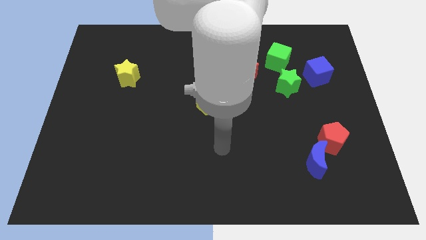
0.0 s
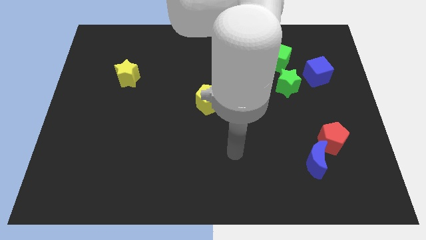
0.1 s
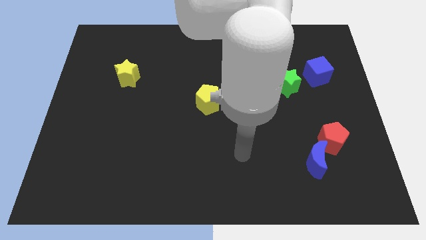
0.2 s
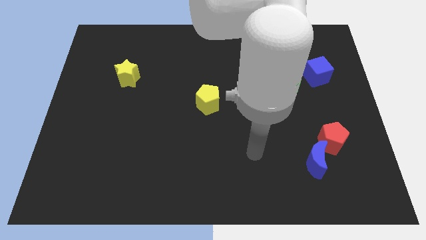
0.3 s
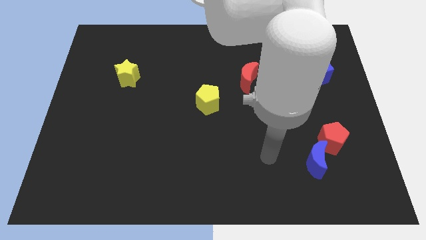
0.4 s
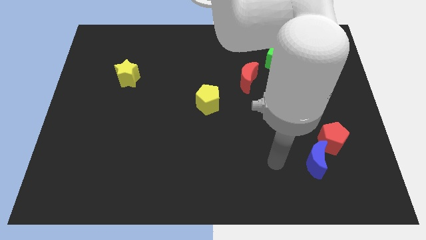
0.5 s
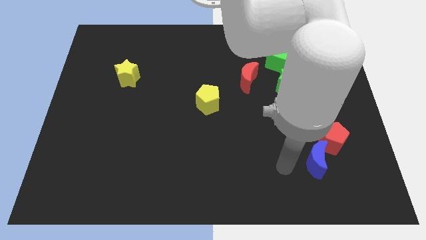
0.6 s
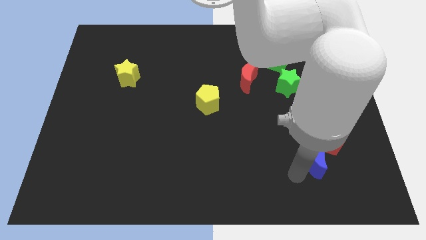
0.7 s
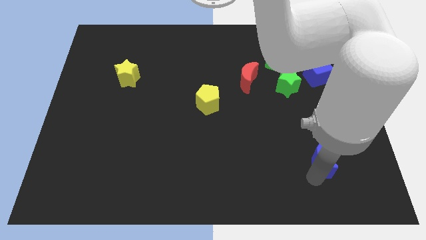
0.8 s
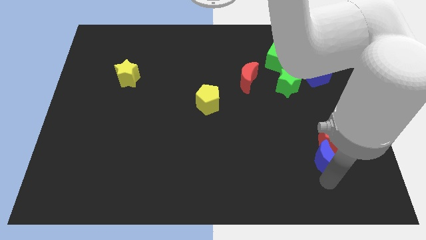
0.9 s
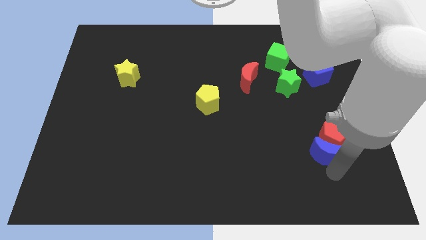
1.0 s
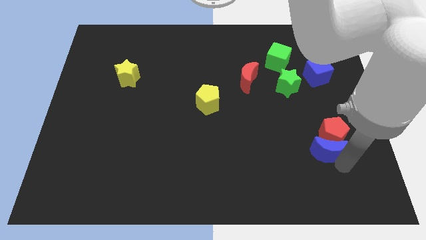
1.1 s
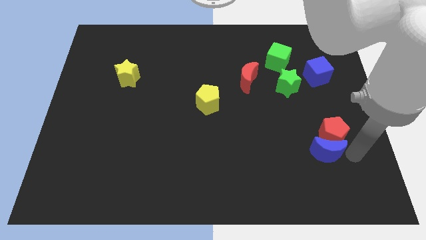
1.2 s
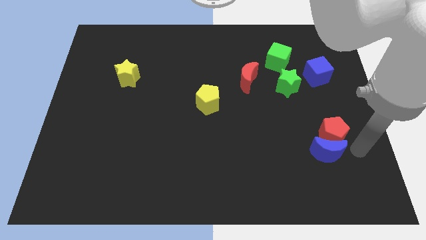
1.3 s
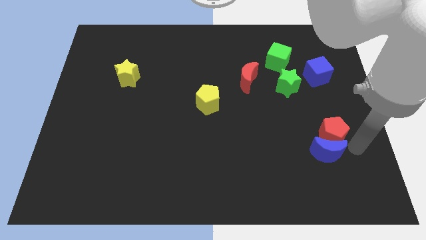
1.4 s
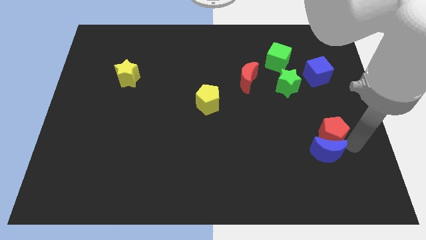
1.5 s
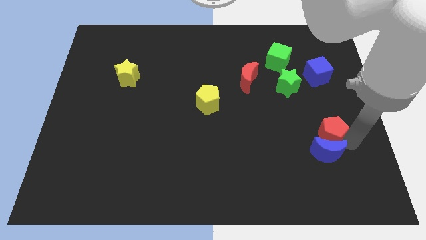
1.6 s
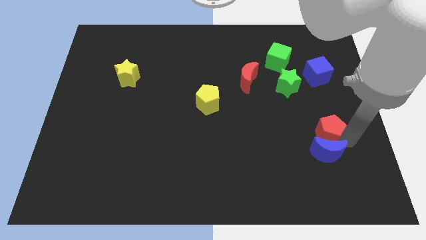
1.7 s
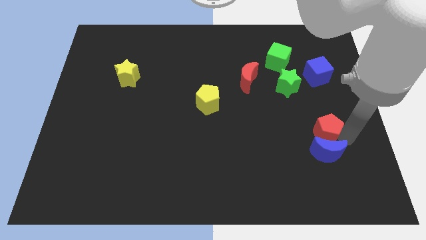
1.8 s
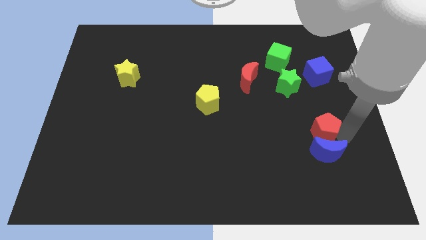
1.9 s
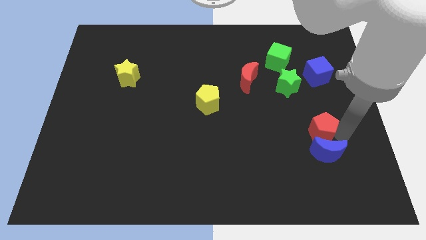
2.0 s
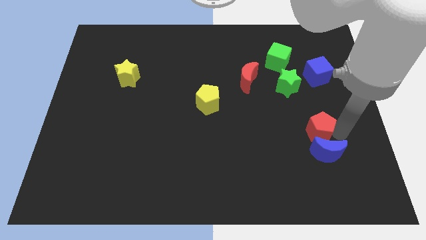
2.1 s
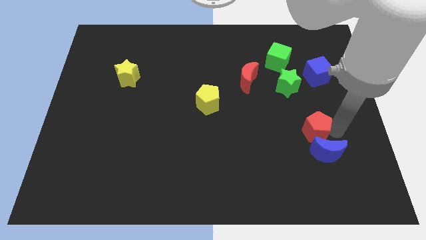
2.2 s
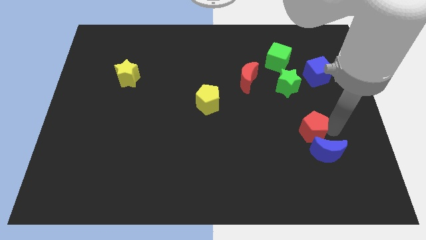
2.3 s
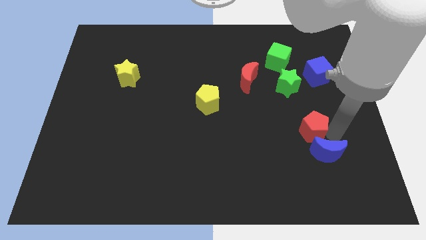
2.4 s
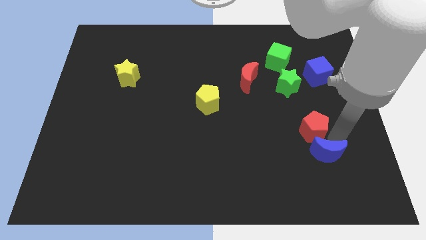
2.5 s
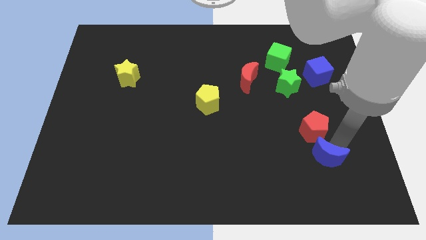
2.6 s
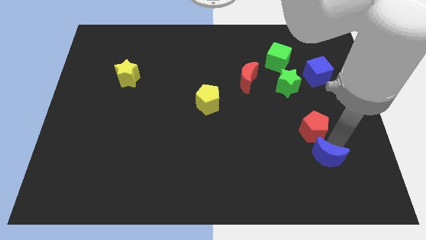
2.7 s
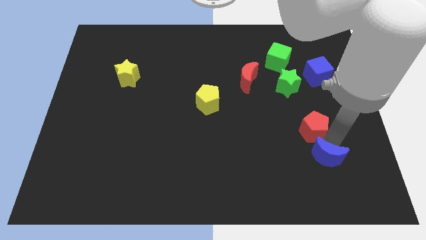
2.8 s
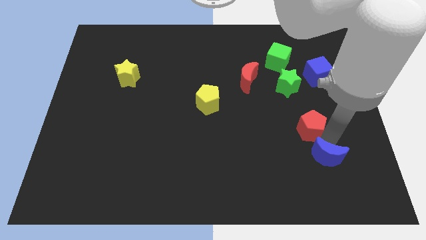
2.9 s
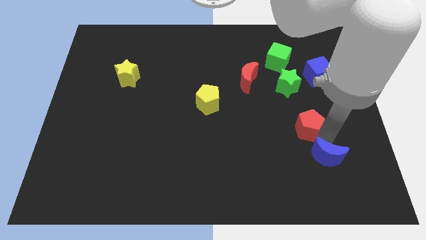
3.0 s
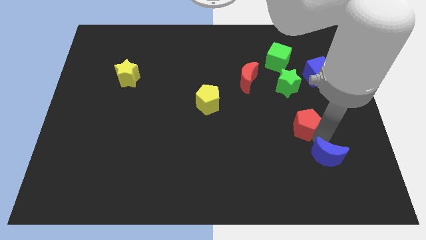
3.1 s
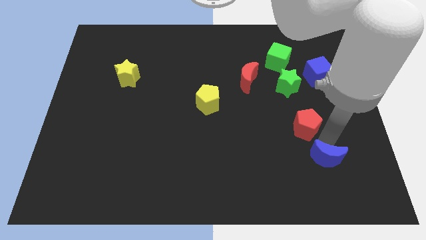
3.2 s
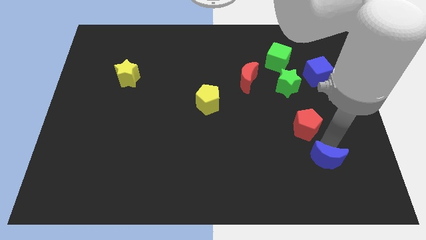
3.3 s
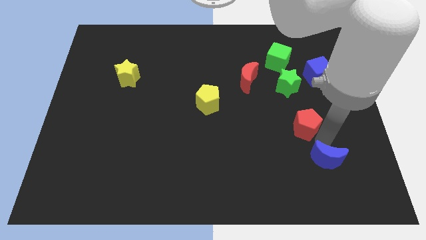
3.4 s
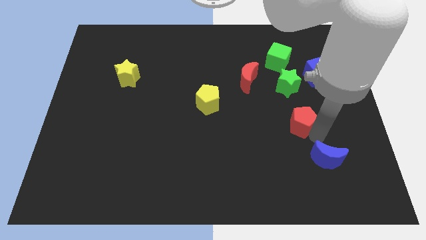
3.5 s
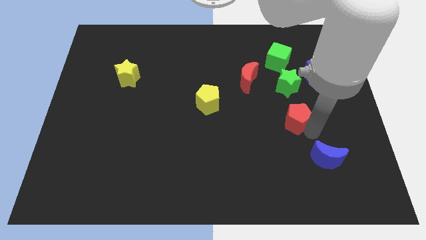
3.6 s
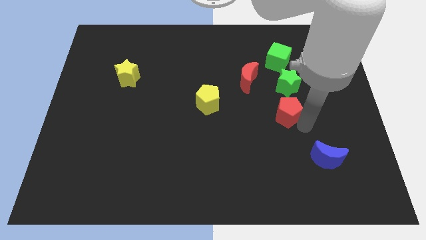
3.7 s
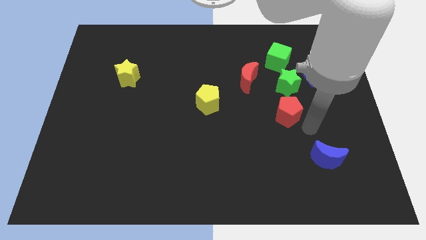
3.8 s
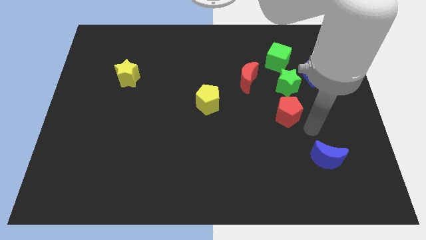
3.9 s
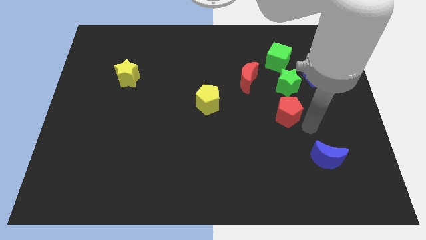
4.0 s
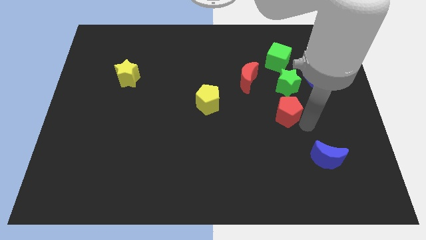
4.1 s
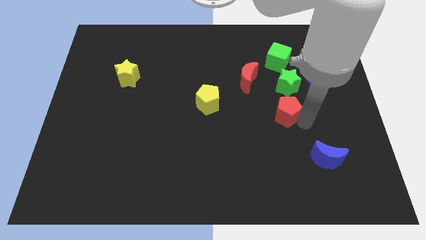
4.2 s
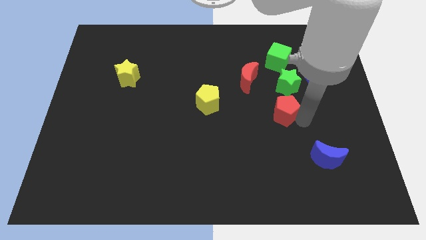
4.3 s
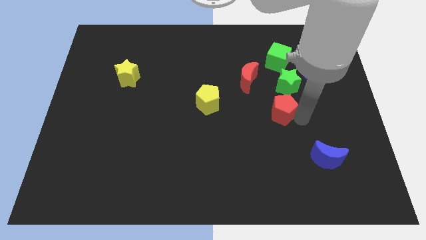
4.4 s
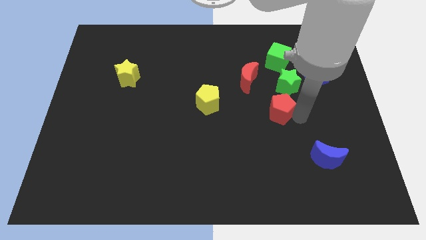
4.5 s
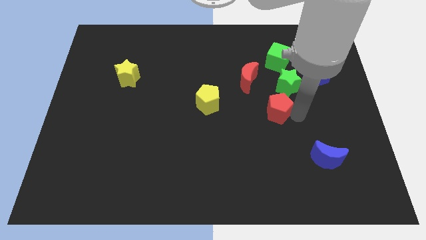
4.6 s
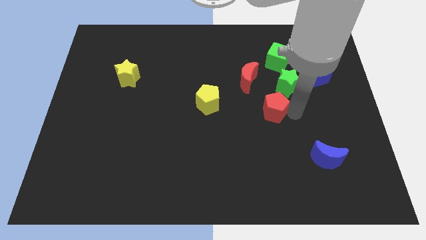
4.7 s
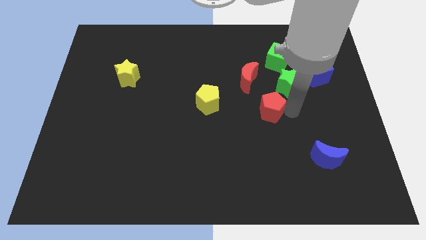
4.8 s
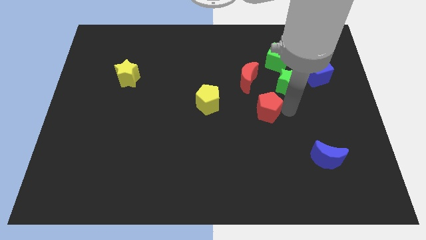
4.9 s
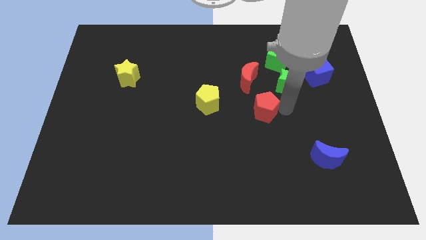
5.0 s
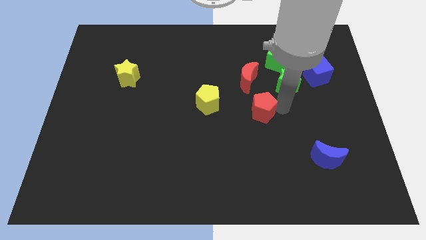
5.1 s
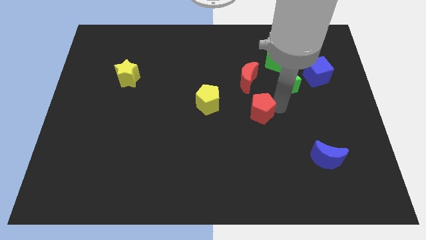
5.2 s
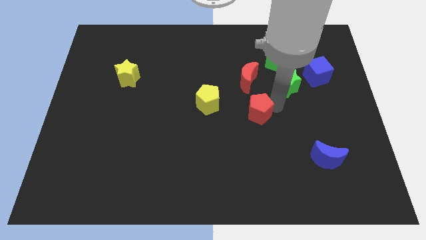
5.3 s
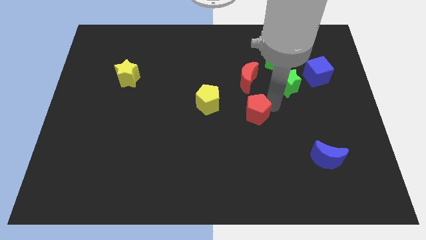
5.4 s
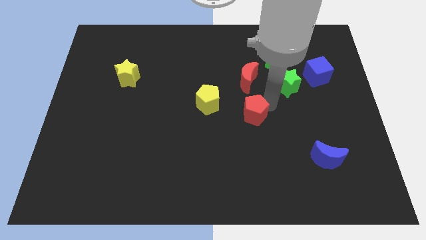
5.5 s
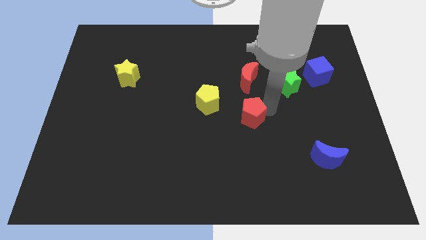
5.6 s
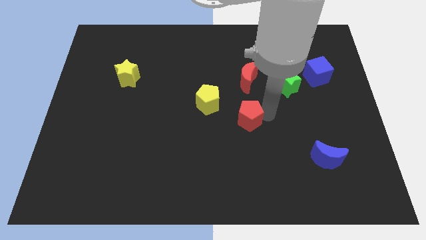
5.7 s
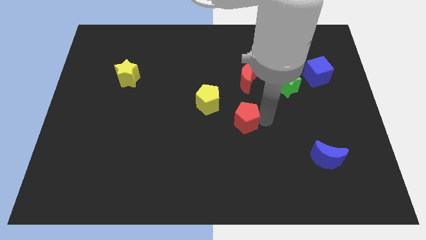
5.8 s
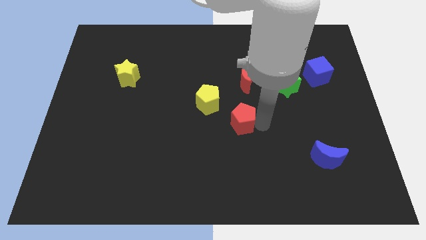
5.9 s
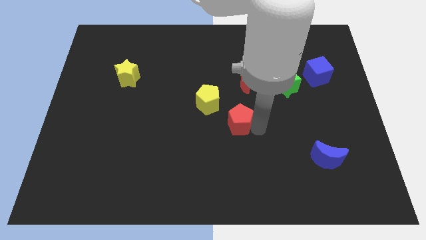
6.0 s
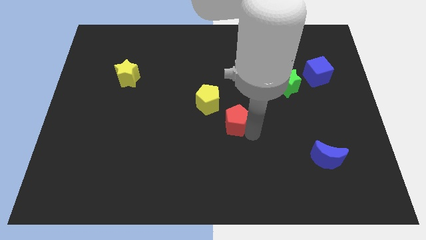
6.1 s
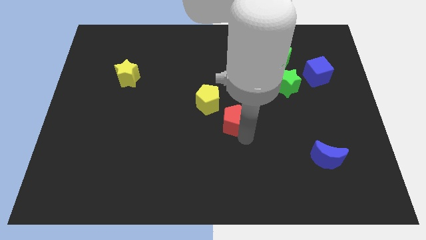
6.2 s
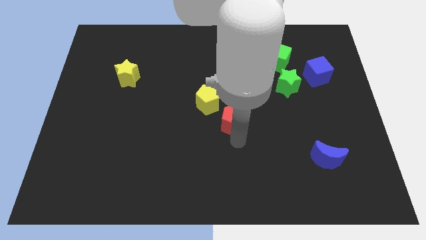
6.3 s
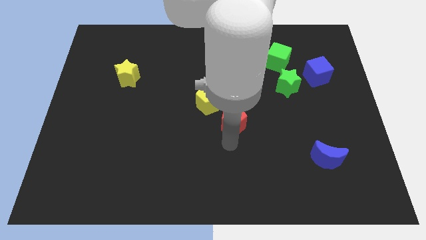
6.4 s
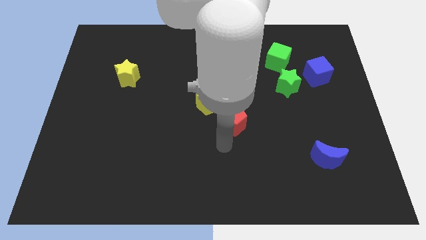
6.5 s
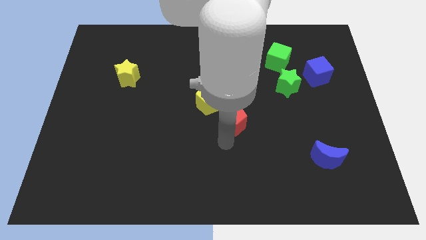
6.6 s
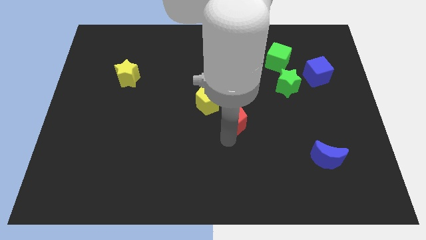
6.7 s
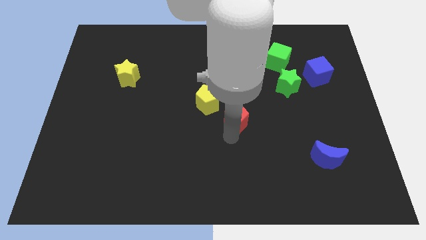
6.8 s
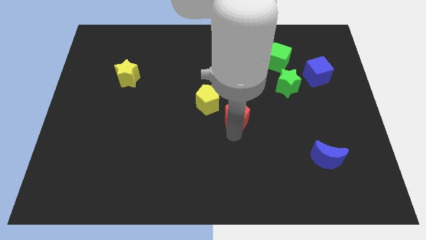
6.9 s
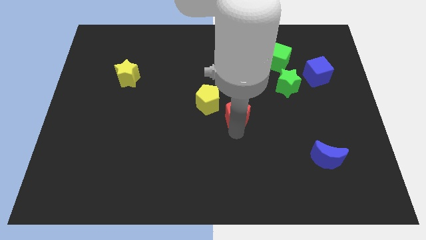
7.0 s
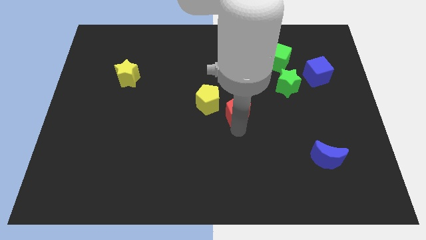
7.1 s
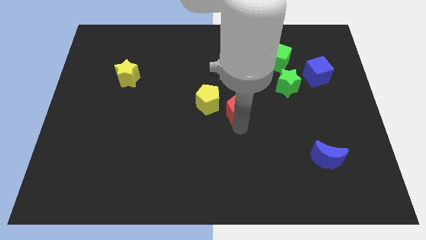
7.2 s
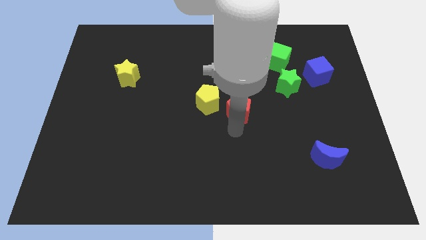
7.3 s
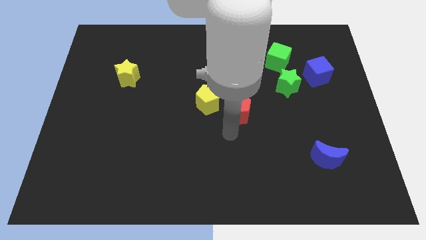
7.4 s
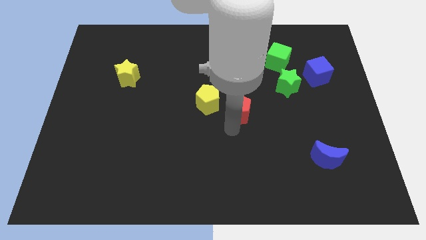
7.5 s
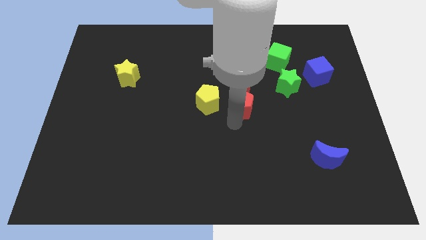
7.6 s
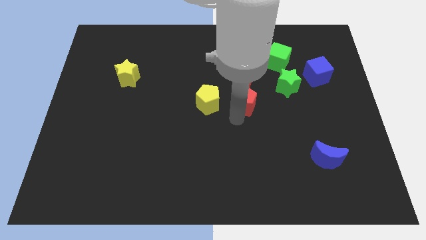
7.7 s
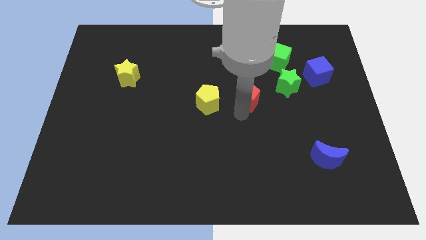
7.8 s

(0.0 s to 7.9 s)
push the red pentagon up and then to the left

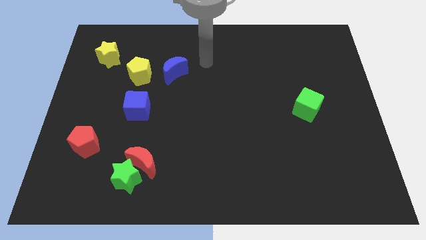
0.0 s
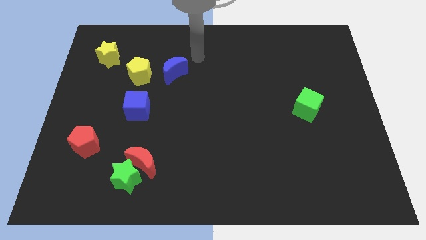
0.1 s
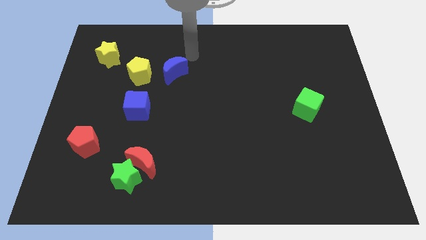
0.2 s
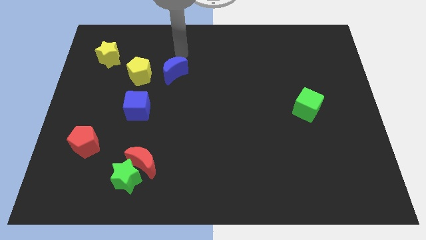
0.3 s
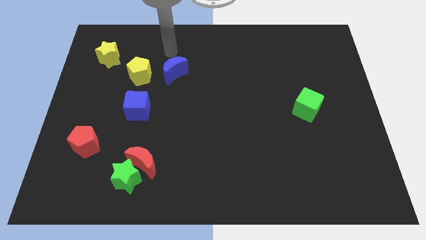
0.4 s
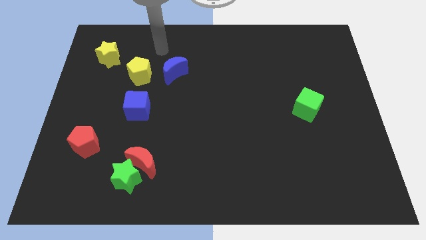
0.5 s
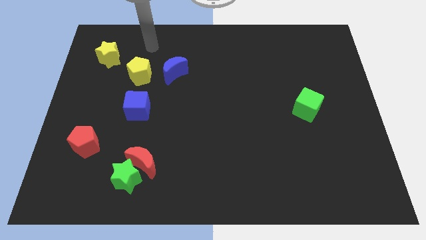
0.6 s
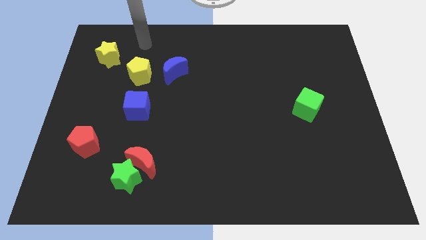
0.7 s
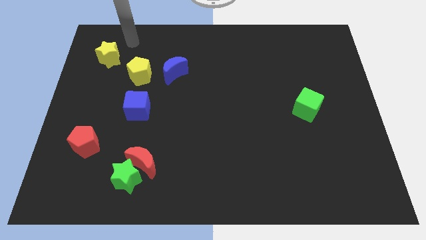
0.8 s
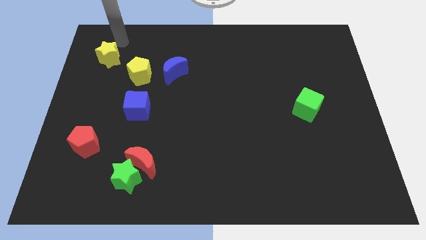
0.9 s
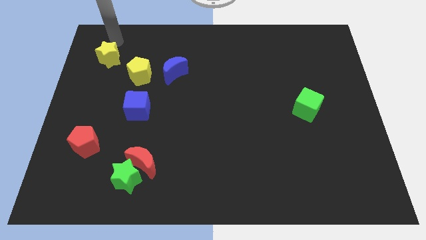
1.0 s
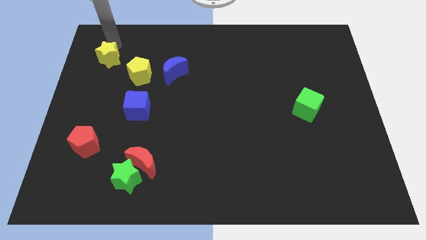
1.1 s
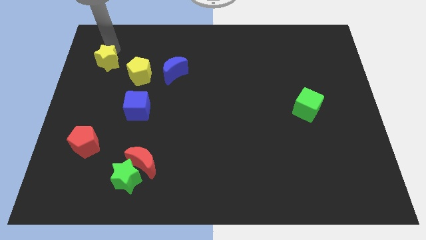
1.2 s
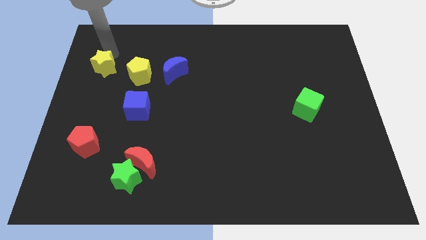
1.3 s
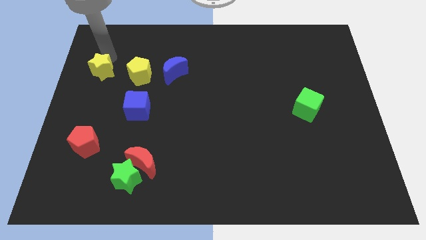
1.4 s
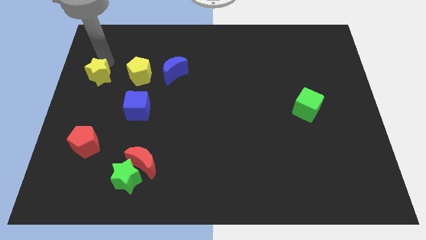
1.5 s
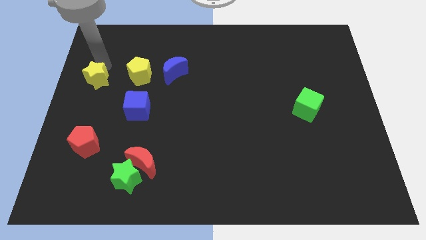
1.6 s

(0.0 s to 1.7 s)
slide the yellow star down slightly
